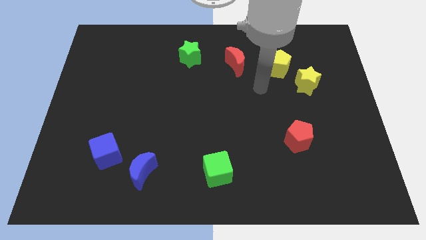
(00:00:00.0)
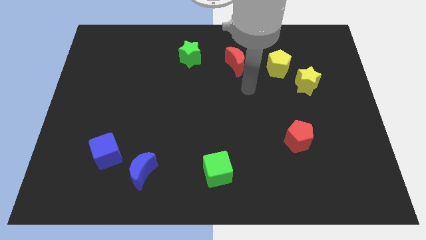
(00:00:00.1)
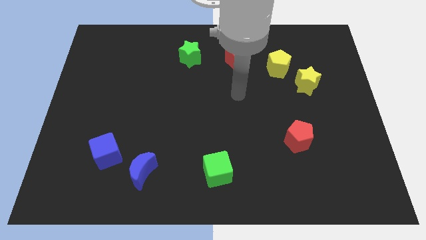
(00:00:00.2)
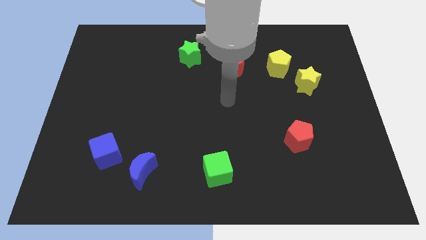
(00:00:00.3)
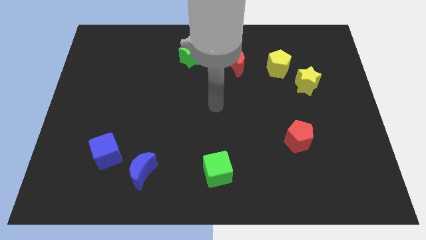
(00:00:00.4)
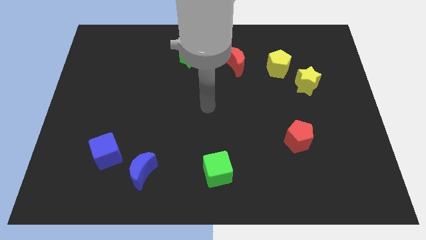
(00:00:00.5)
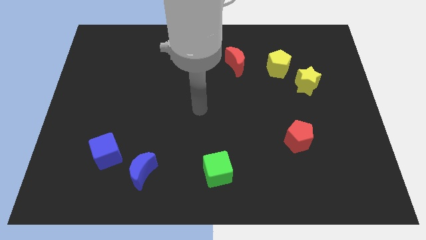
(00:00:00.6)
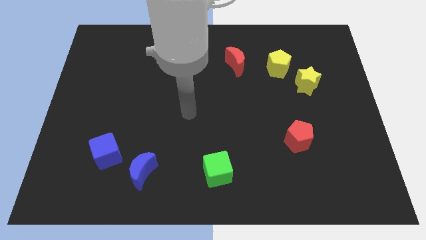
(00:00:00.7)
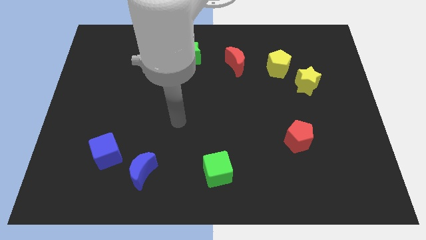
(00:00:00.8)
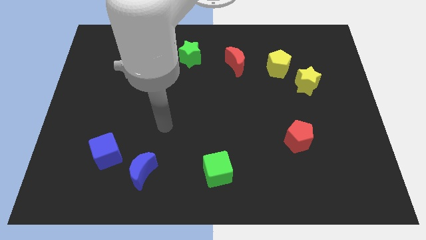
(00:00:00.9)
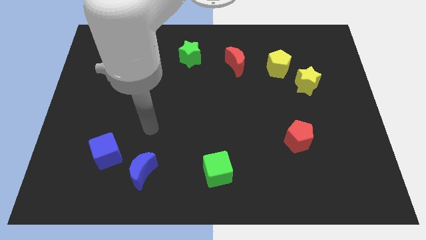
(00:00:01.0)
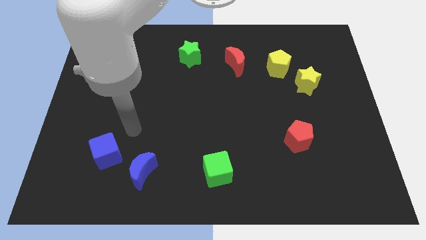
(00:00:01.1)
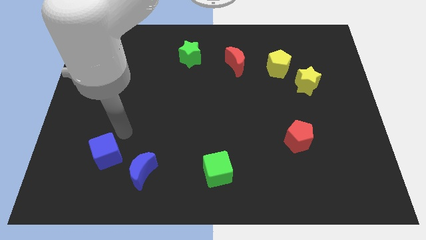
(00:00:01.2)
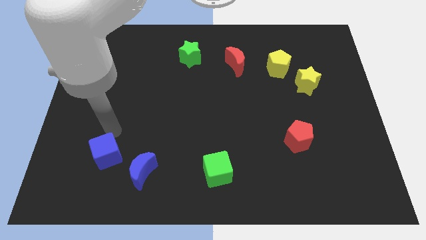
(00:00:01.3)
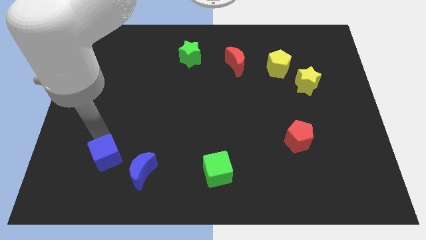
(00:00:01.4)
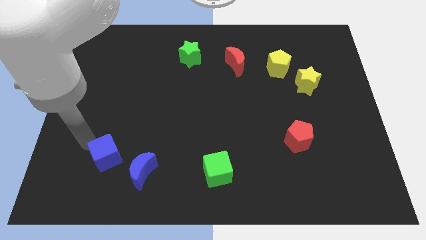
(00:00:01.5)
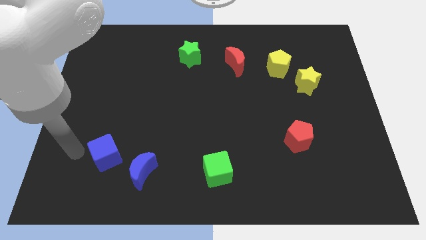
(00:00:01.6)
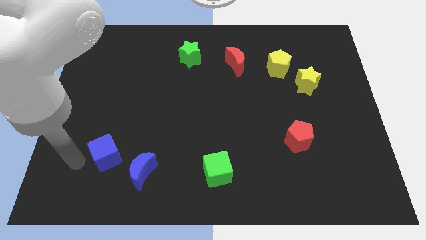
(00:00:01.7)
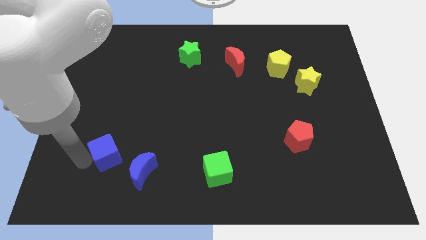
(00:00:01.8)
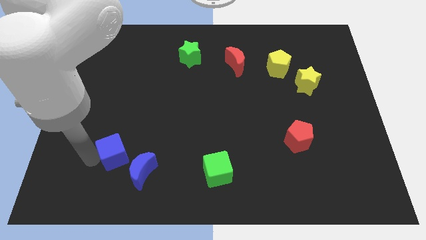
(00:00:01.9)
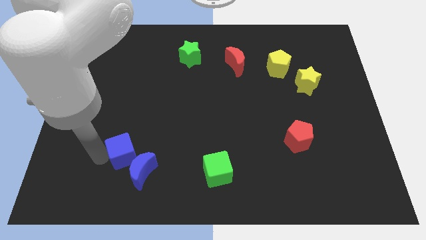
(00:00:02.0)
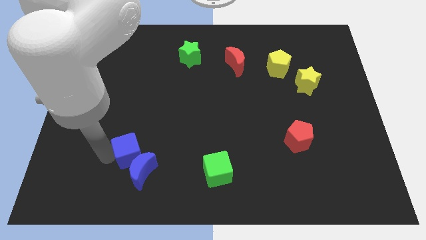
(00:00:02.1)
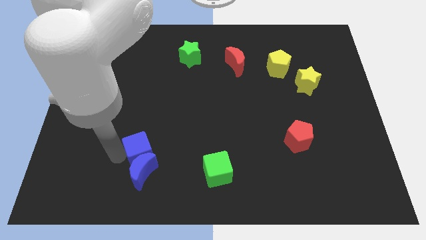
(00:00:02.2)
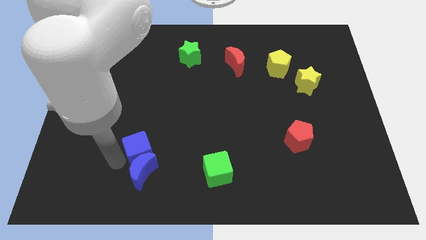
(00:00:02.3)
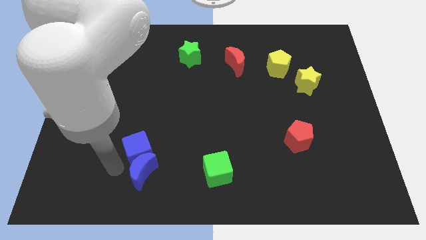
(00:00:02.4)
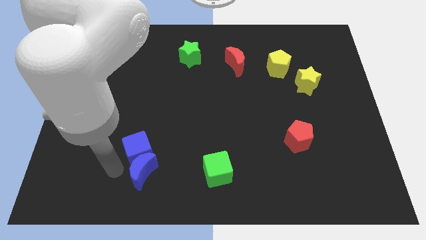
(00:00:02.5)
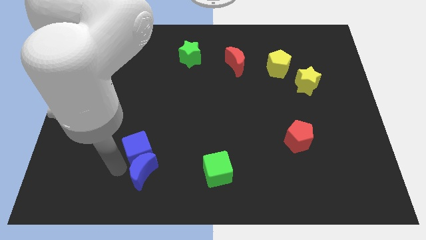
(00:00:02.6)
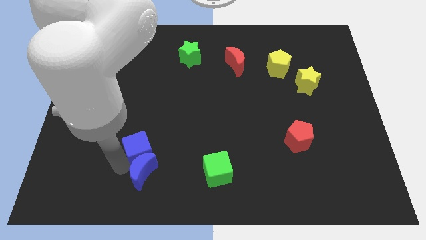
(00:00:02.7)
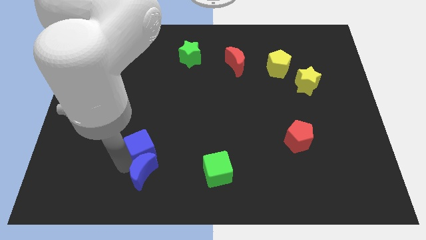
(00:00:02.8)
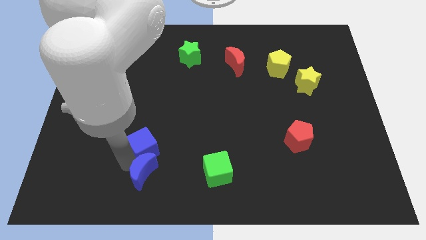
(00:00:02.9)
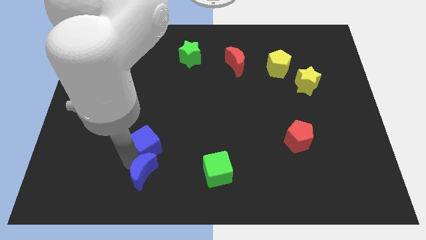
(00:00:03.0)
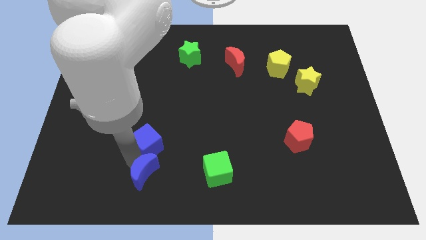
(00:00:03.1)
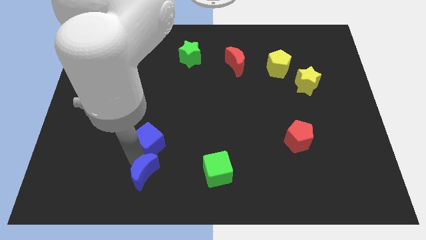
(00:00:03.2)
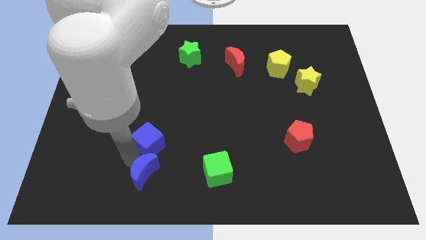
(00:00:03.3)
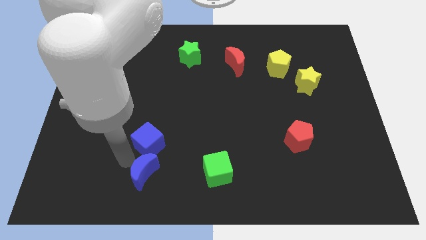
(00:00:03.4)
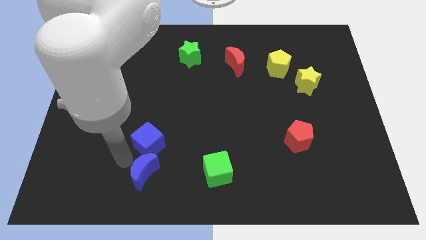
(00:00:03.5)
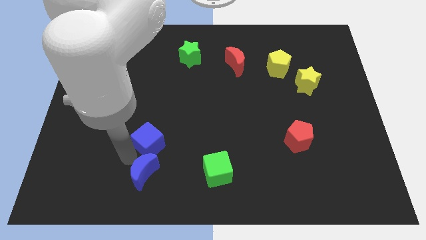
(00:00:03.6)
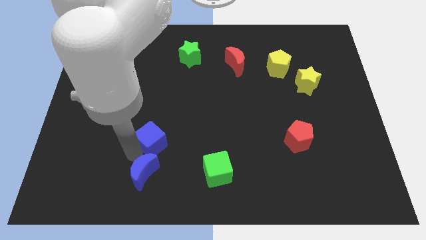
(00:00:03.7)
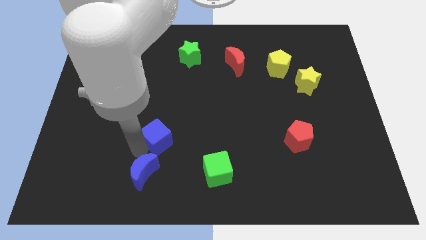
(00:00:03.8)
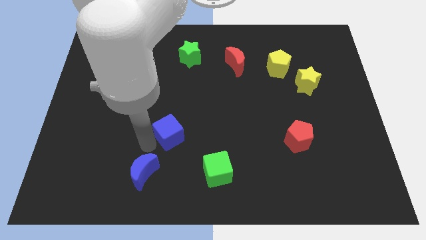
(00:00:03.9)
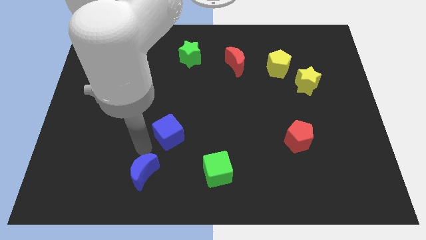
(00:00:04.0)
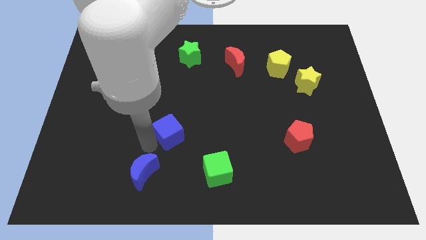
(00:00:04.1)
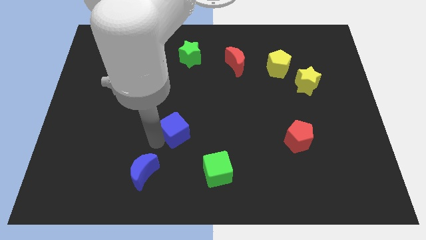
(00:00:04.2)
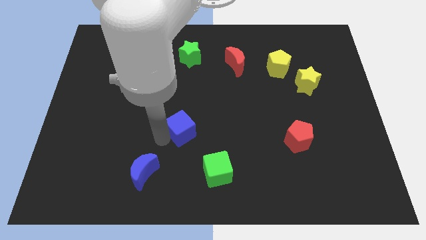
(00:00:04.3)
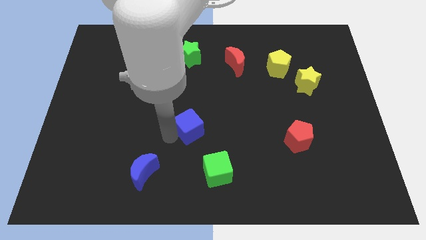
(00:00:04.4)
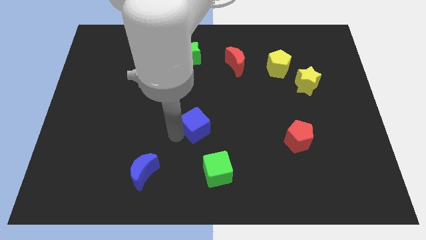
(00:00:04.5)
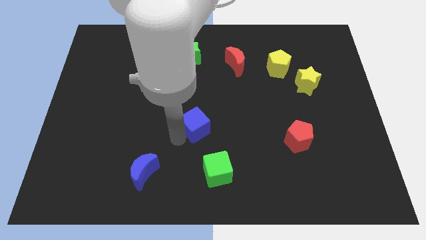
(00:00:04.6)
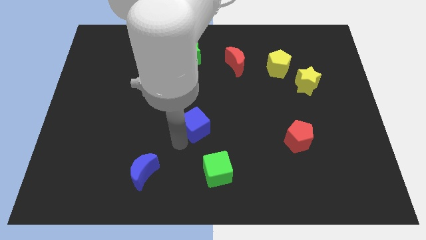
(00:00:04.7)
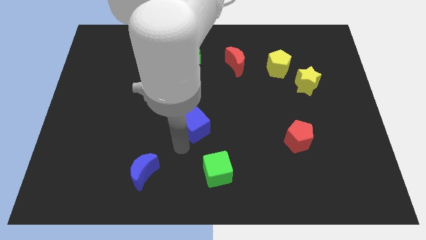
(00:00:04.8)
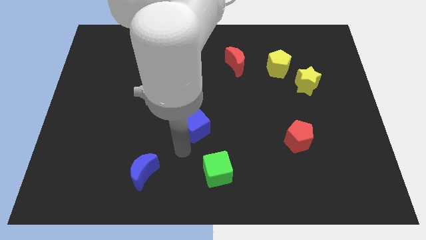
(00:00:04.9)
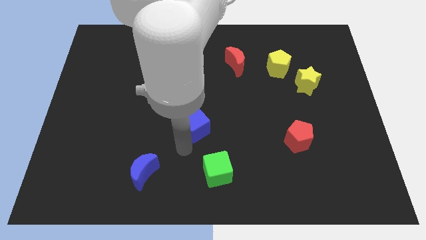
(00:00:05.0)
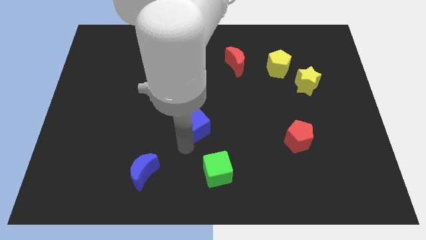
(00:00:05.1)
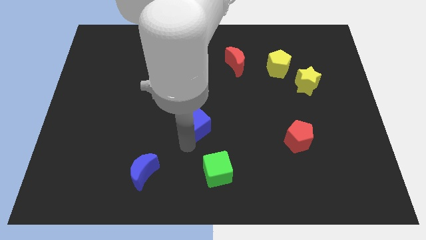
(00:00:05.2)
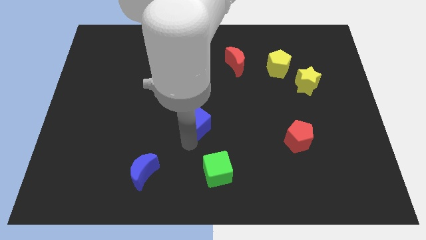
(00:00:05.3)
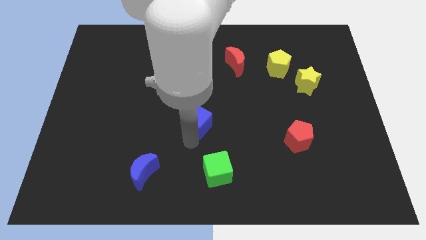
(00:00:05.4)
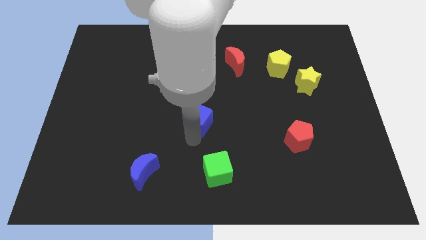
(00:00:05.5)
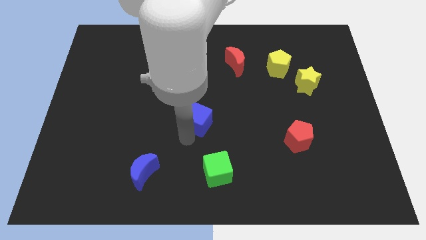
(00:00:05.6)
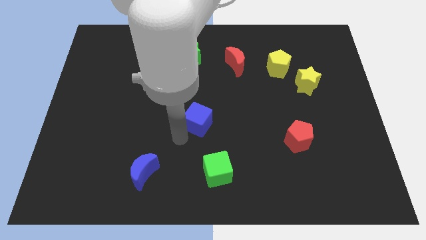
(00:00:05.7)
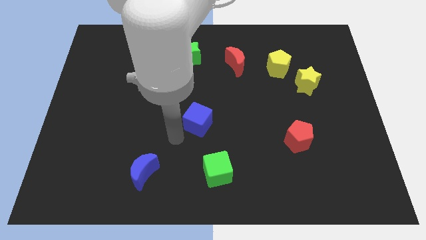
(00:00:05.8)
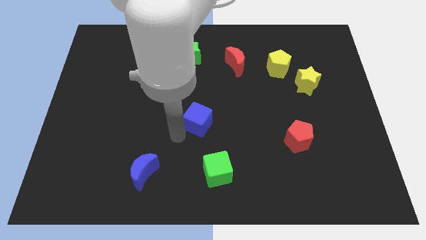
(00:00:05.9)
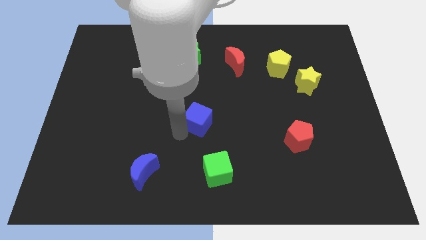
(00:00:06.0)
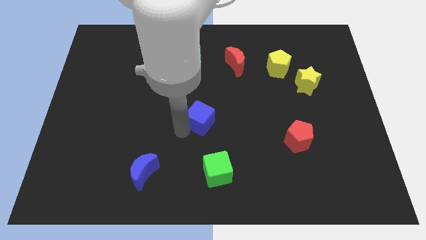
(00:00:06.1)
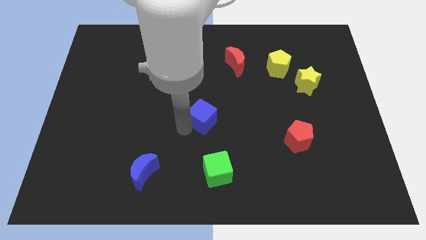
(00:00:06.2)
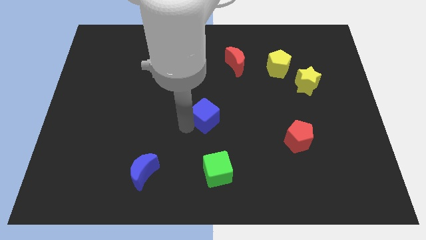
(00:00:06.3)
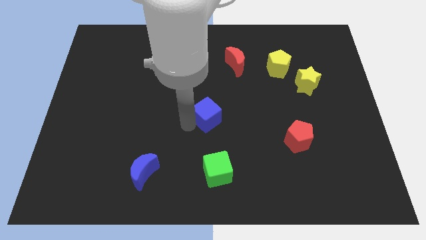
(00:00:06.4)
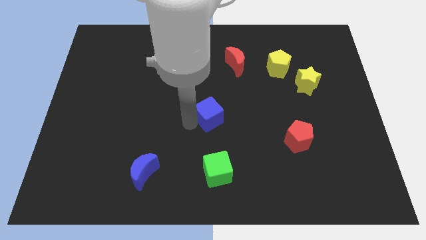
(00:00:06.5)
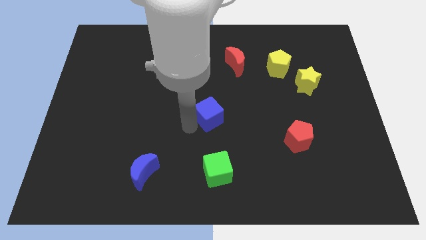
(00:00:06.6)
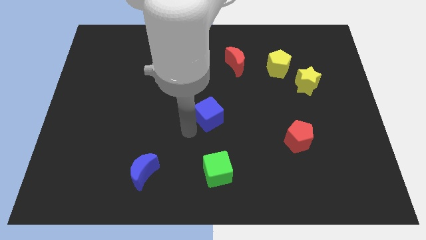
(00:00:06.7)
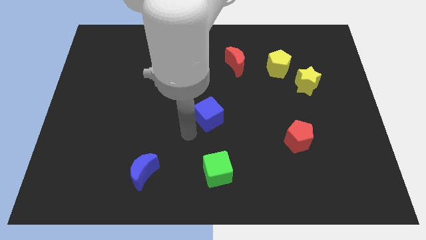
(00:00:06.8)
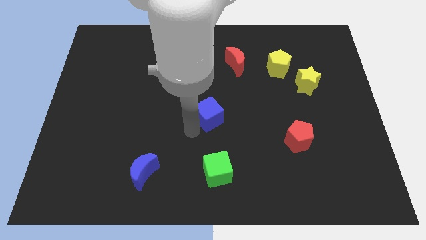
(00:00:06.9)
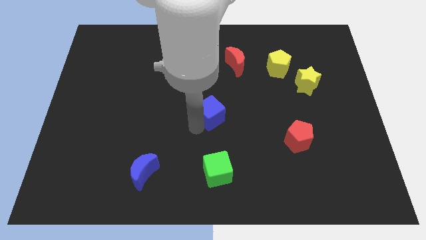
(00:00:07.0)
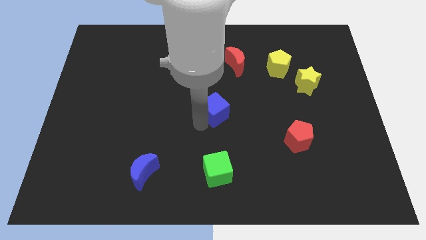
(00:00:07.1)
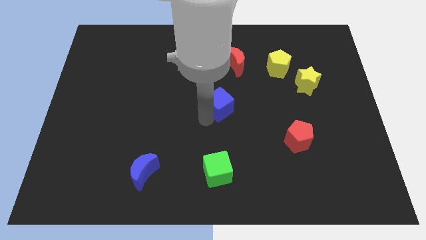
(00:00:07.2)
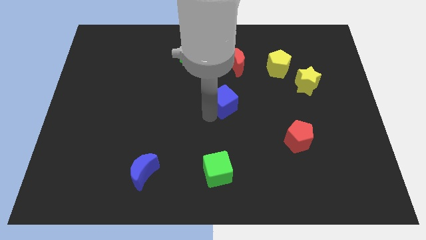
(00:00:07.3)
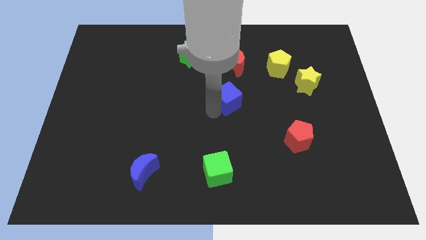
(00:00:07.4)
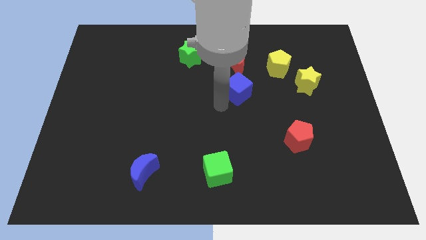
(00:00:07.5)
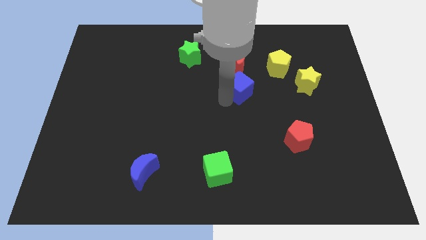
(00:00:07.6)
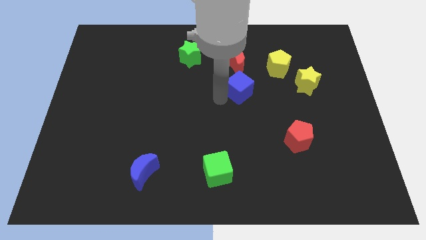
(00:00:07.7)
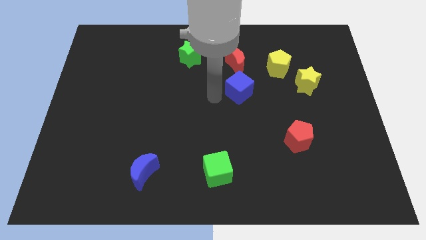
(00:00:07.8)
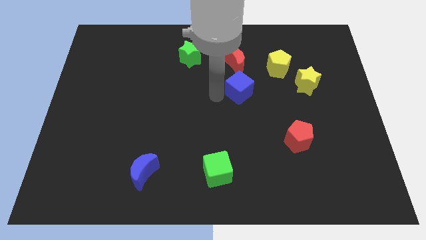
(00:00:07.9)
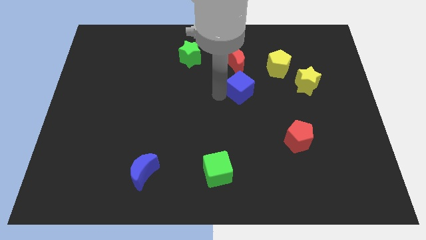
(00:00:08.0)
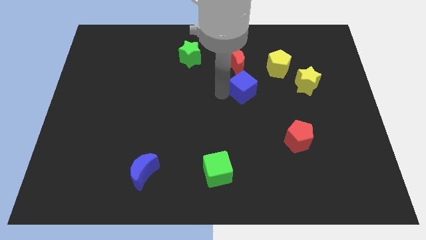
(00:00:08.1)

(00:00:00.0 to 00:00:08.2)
slide the blue cube to the left side of the yellow star
